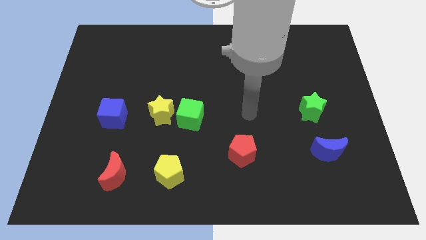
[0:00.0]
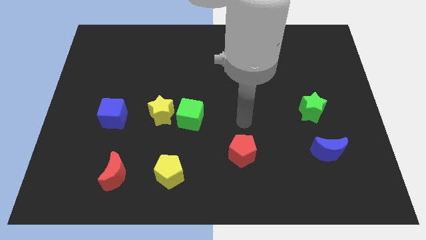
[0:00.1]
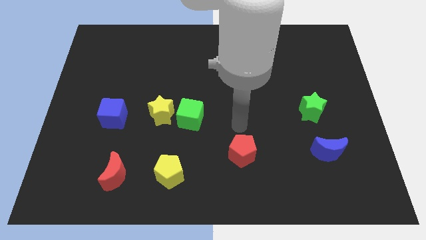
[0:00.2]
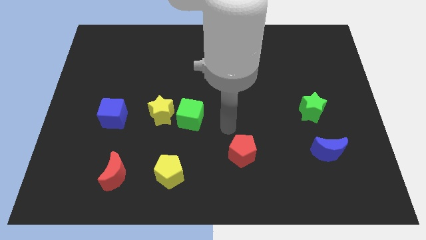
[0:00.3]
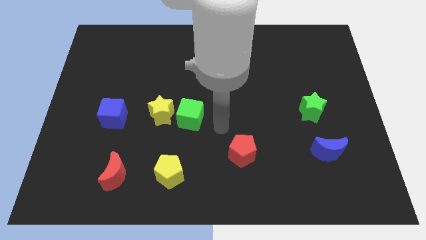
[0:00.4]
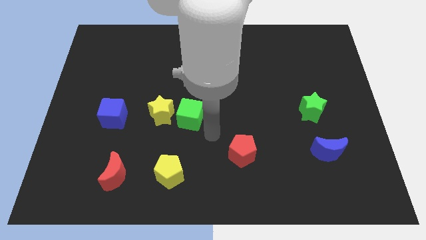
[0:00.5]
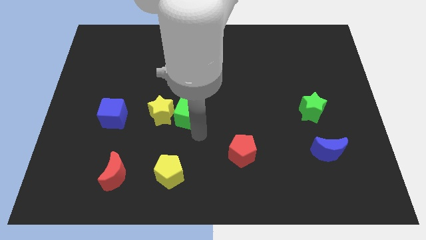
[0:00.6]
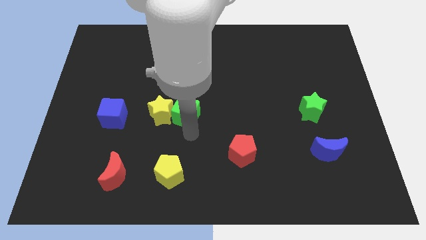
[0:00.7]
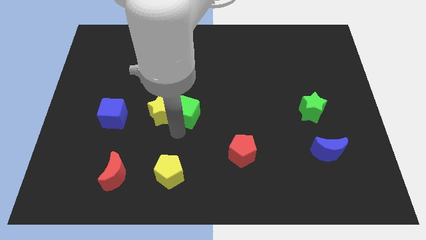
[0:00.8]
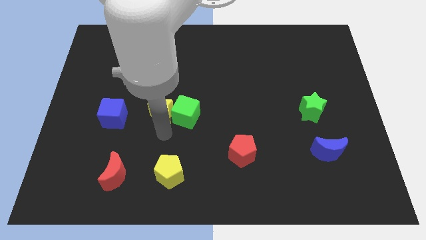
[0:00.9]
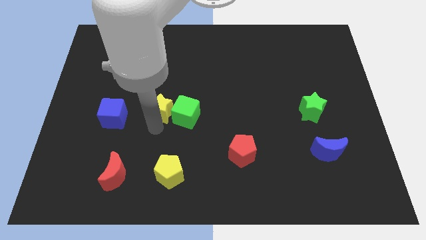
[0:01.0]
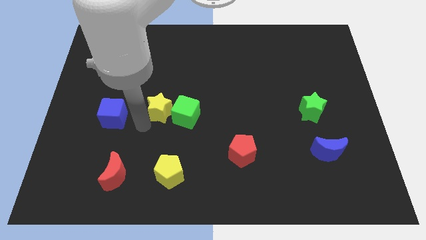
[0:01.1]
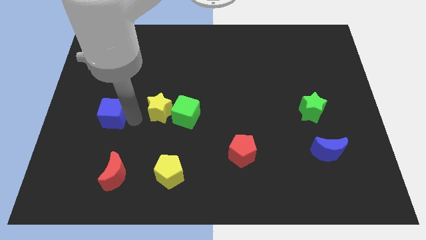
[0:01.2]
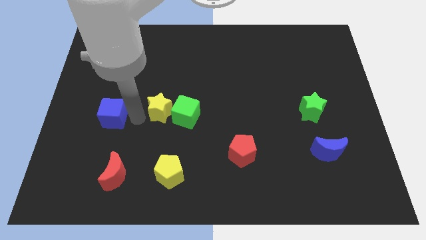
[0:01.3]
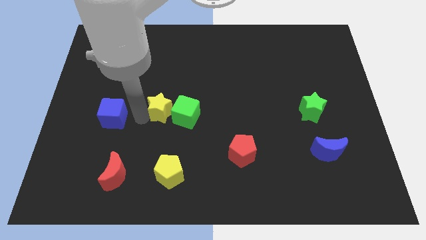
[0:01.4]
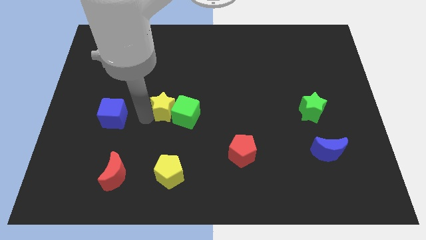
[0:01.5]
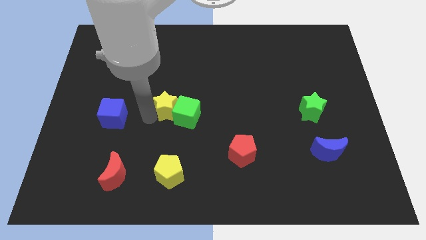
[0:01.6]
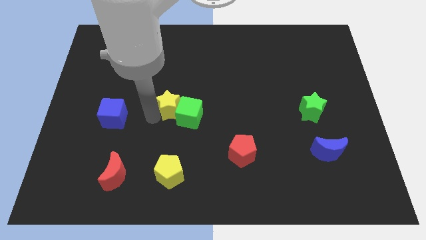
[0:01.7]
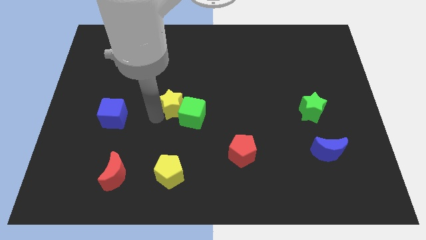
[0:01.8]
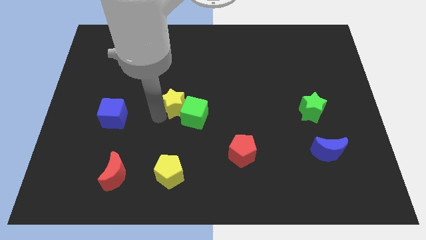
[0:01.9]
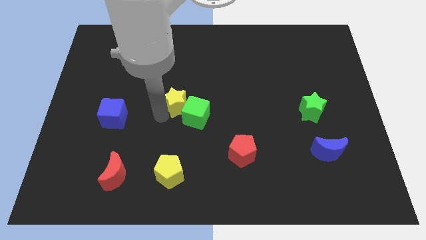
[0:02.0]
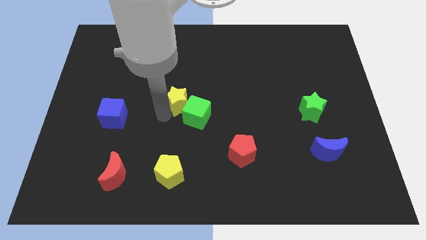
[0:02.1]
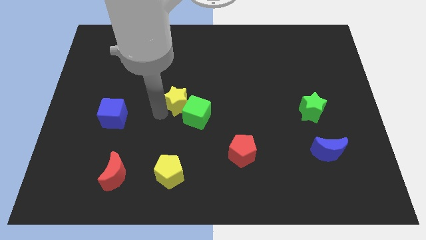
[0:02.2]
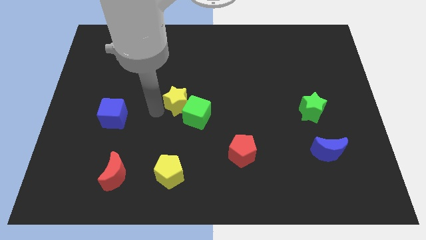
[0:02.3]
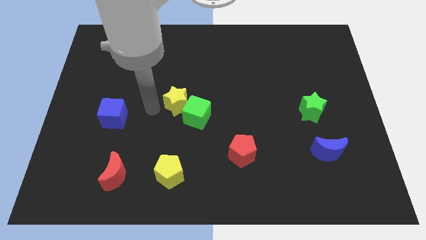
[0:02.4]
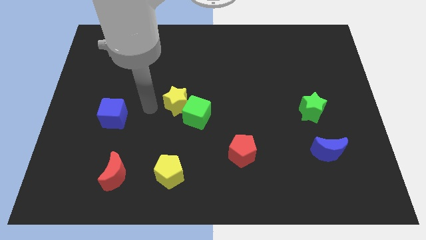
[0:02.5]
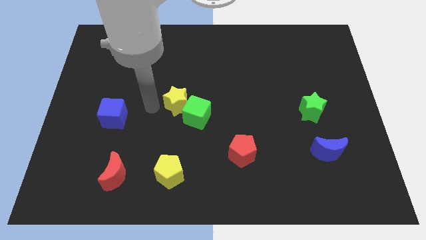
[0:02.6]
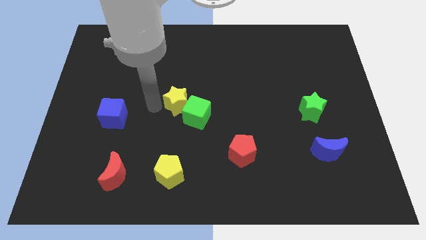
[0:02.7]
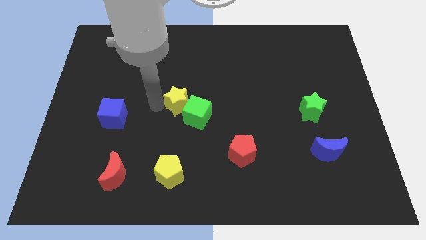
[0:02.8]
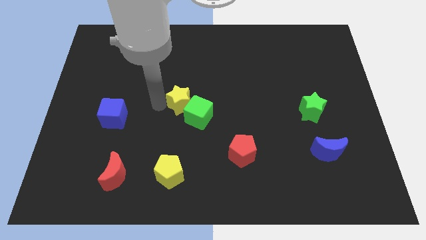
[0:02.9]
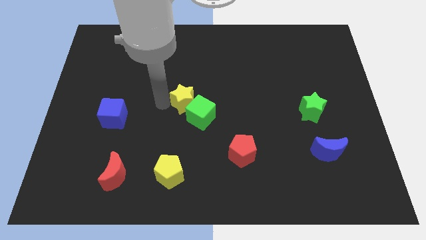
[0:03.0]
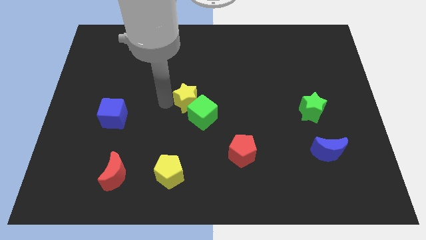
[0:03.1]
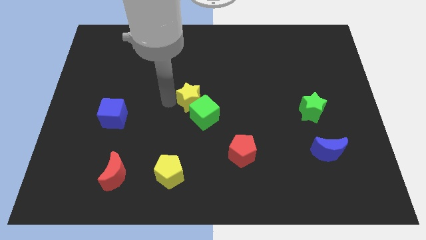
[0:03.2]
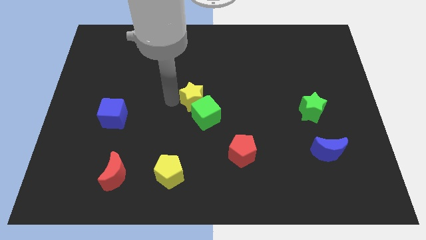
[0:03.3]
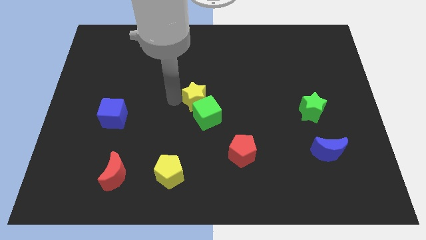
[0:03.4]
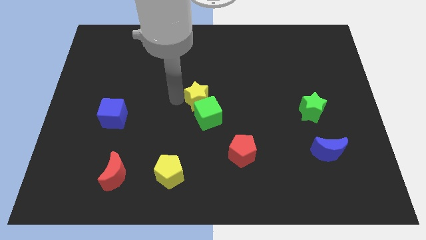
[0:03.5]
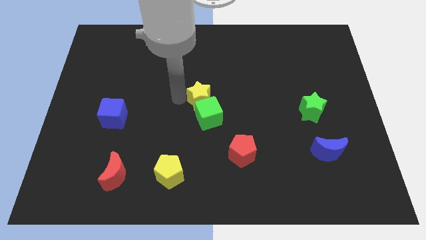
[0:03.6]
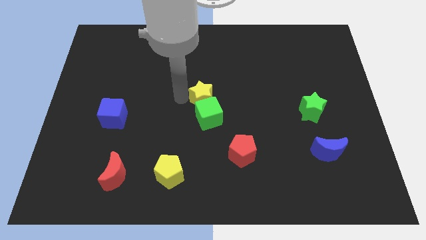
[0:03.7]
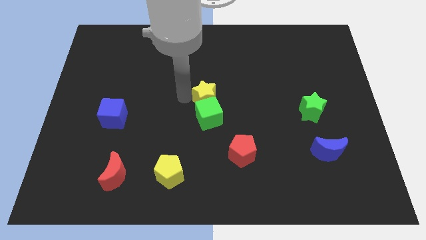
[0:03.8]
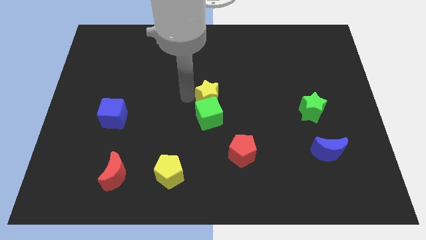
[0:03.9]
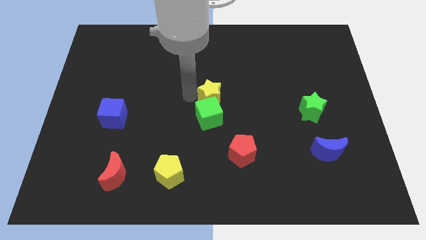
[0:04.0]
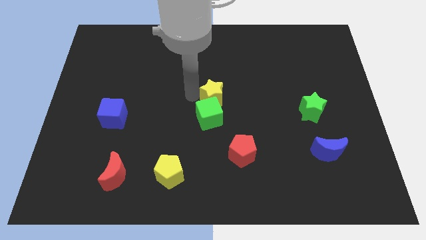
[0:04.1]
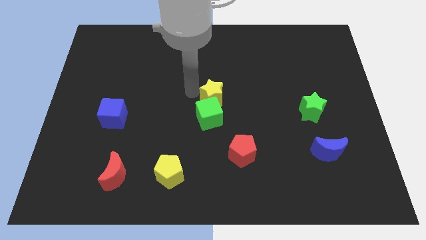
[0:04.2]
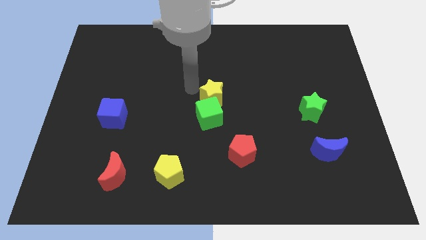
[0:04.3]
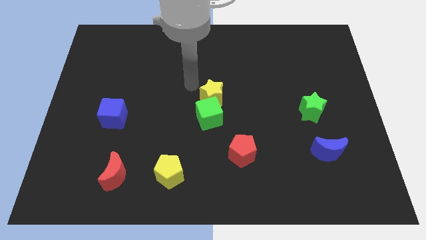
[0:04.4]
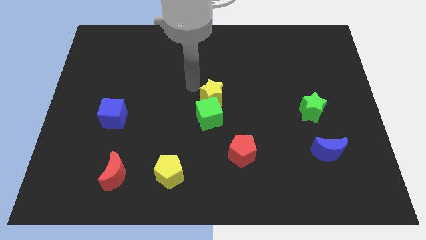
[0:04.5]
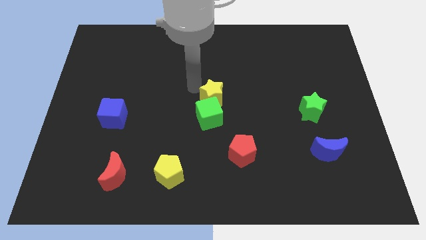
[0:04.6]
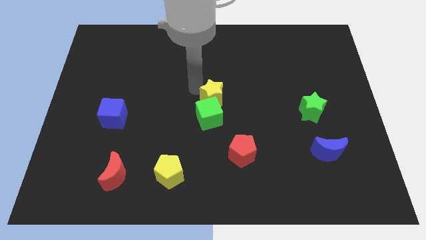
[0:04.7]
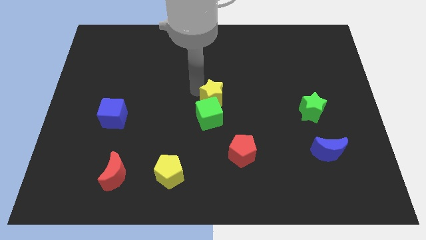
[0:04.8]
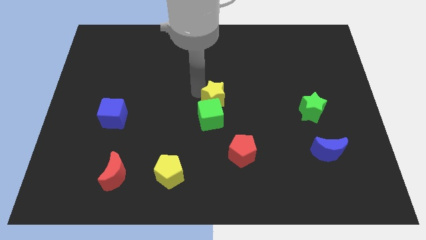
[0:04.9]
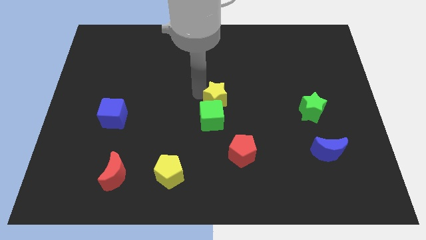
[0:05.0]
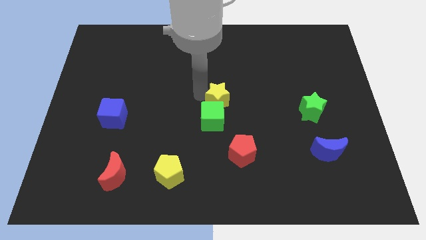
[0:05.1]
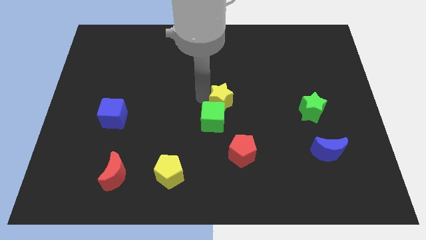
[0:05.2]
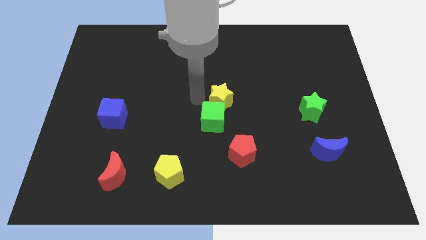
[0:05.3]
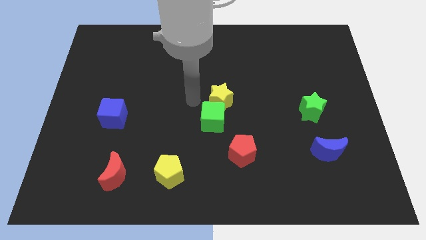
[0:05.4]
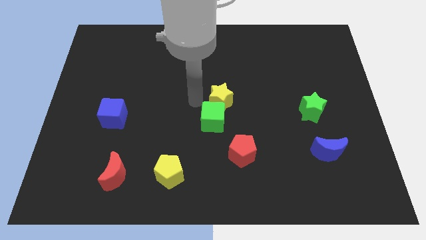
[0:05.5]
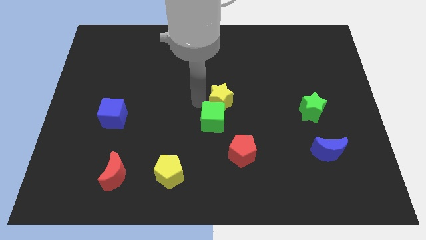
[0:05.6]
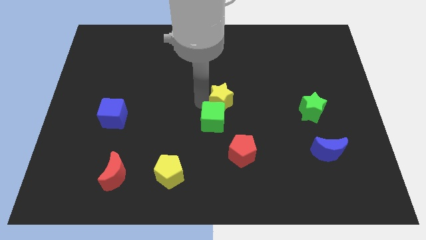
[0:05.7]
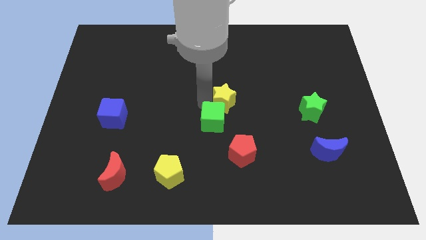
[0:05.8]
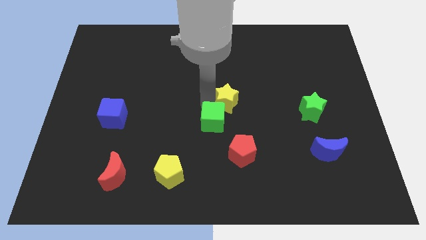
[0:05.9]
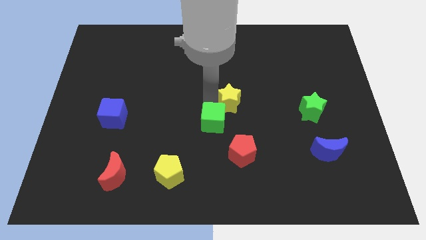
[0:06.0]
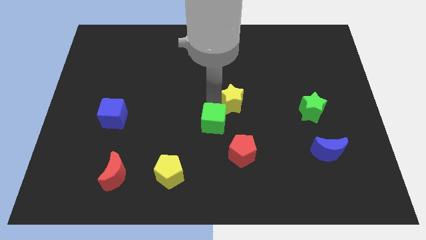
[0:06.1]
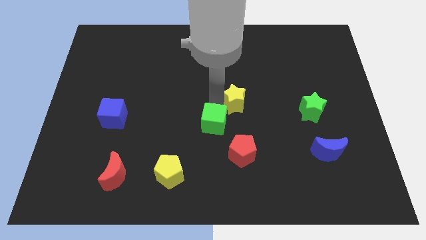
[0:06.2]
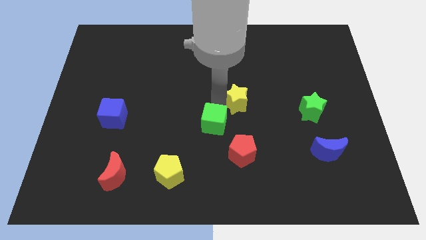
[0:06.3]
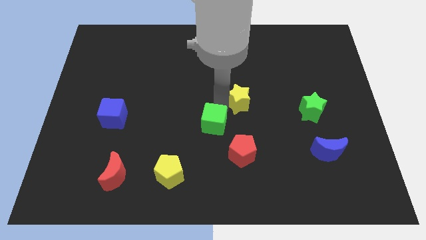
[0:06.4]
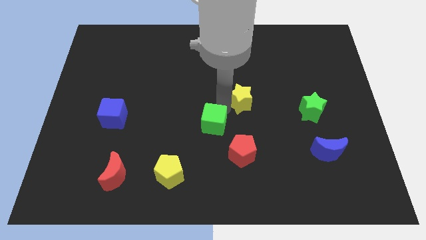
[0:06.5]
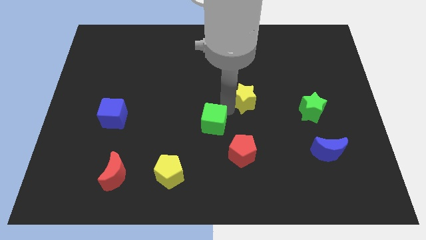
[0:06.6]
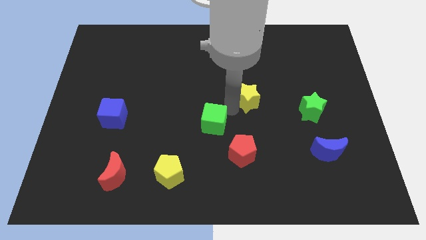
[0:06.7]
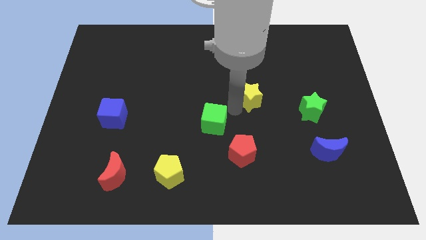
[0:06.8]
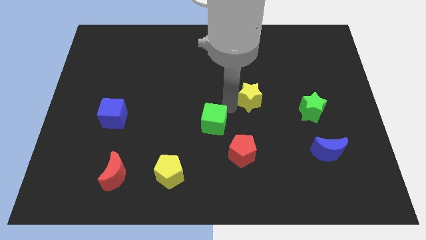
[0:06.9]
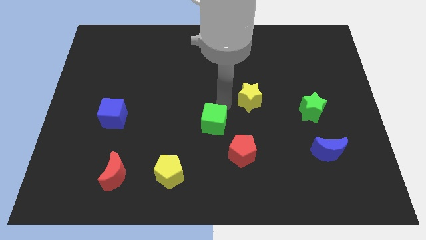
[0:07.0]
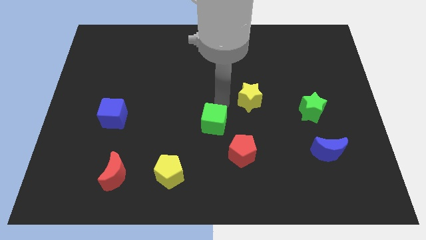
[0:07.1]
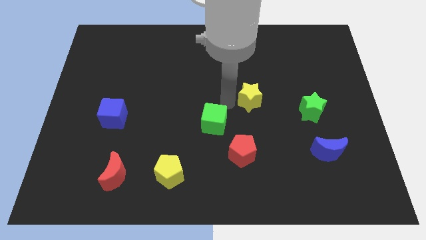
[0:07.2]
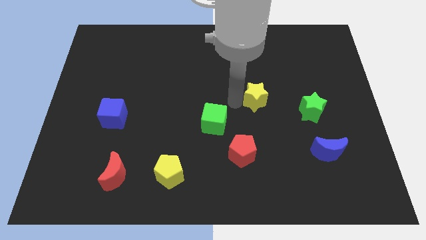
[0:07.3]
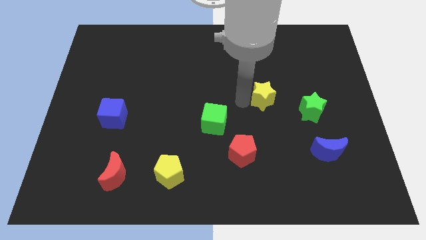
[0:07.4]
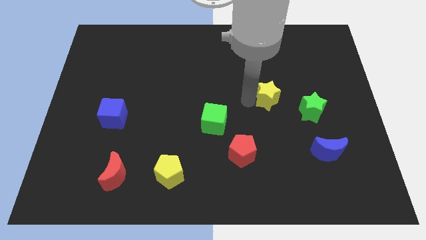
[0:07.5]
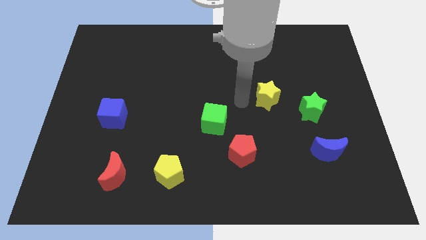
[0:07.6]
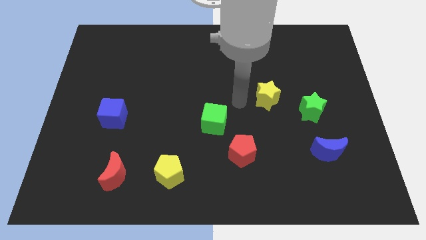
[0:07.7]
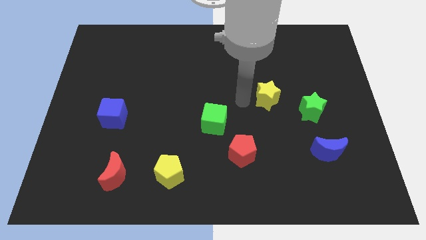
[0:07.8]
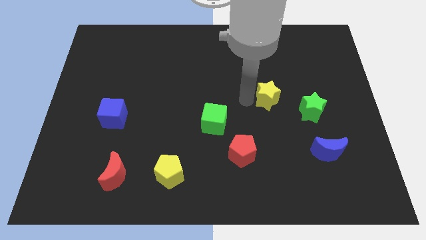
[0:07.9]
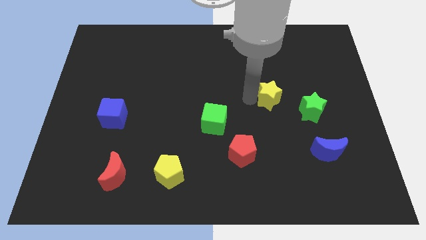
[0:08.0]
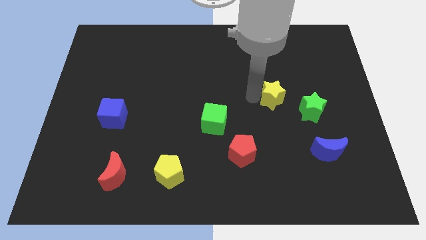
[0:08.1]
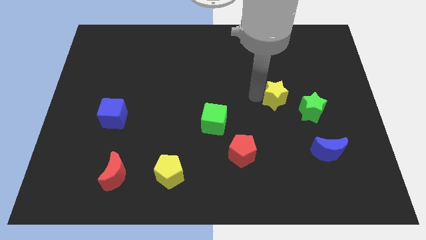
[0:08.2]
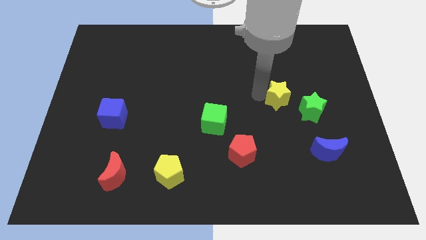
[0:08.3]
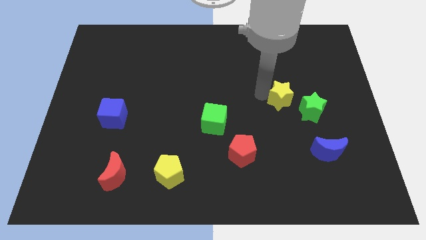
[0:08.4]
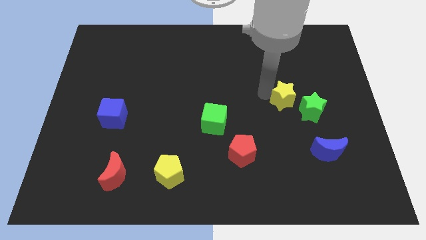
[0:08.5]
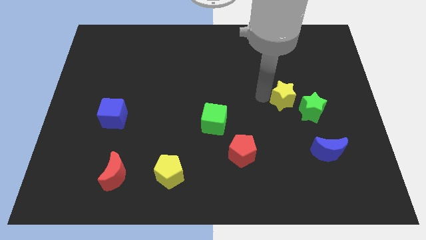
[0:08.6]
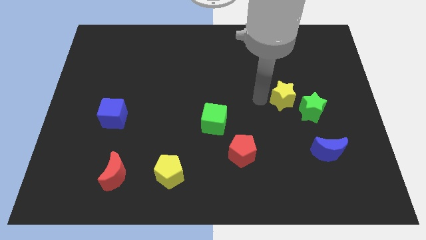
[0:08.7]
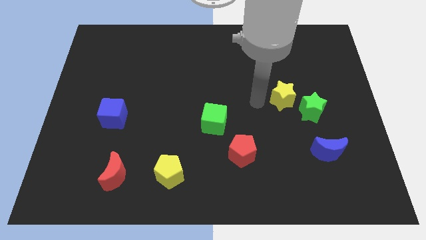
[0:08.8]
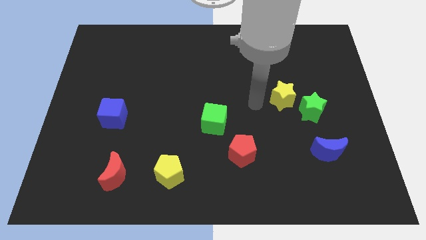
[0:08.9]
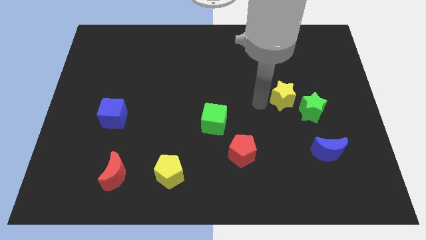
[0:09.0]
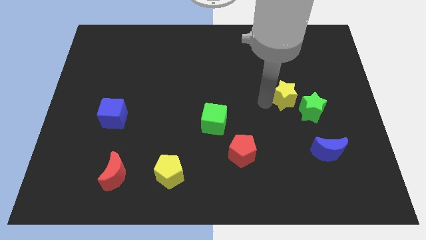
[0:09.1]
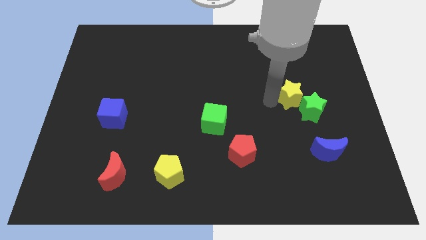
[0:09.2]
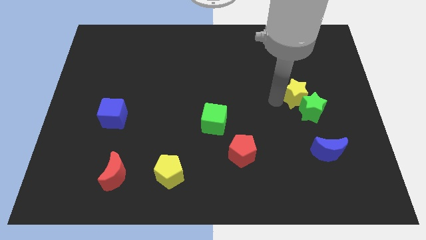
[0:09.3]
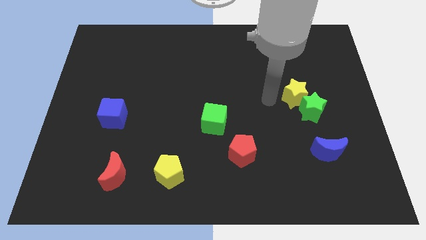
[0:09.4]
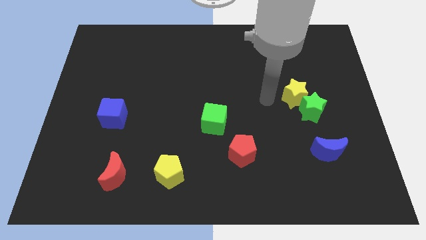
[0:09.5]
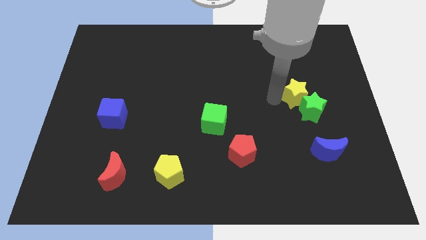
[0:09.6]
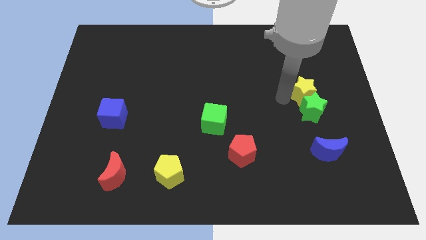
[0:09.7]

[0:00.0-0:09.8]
push the yellow star diagonally up and to the right of the green star
